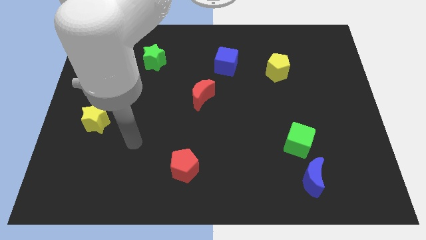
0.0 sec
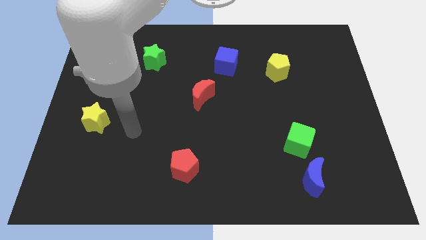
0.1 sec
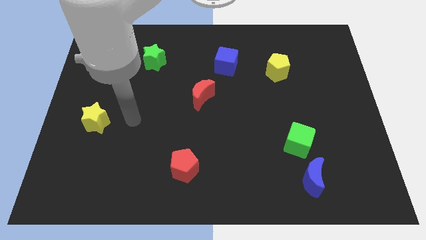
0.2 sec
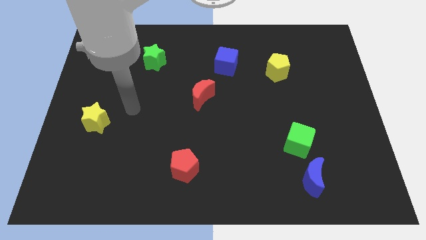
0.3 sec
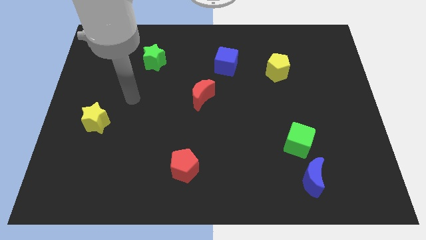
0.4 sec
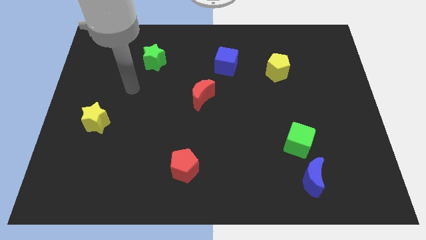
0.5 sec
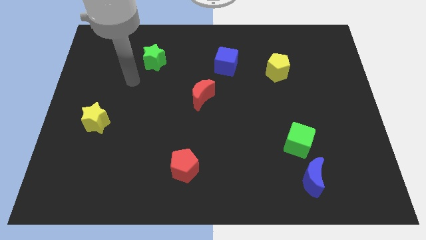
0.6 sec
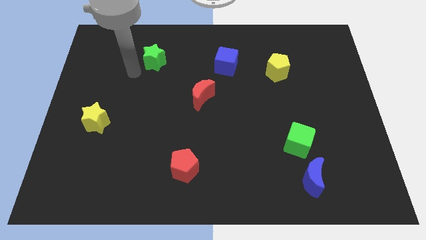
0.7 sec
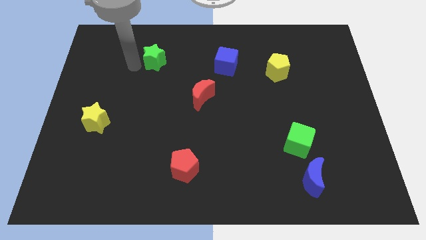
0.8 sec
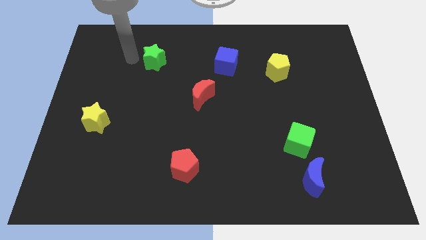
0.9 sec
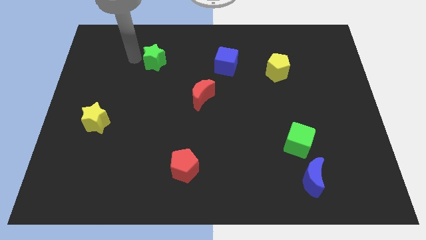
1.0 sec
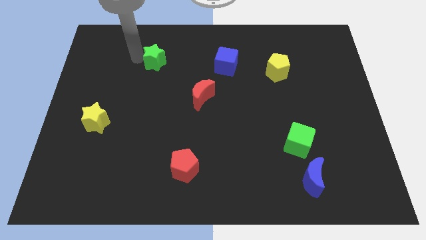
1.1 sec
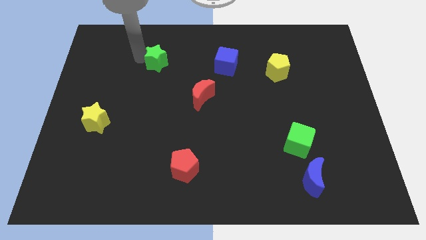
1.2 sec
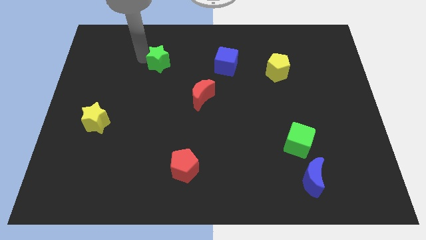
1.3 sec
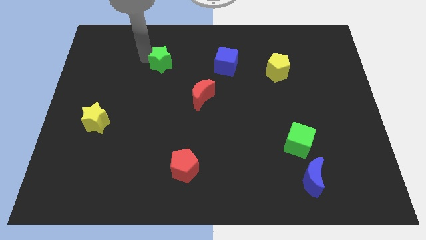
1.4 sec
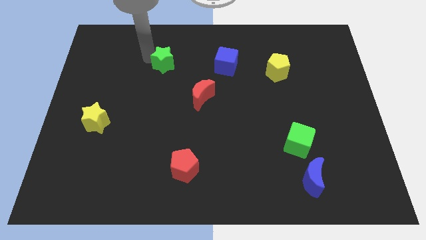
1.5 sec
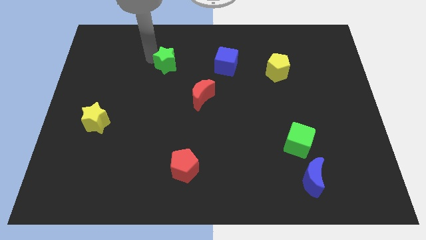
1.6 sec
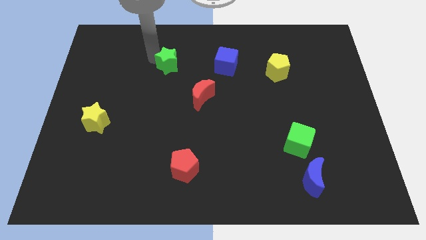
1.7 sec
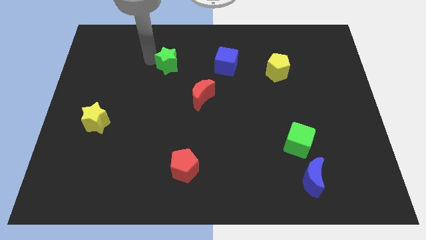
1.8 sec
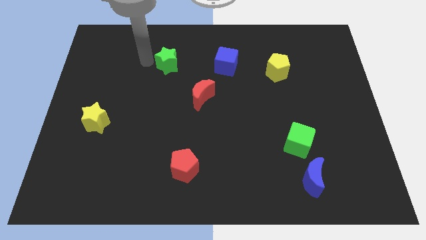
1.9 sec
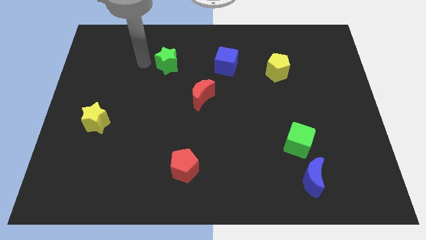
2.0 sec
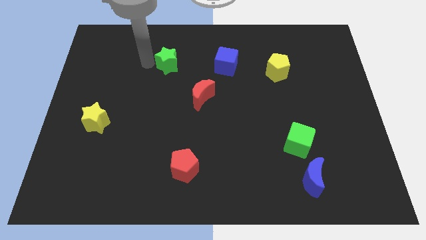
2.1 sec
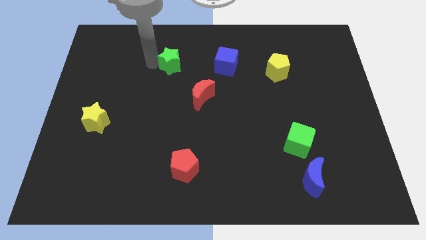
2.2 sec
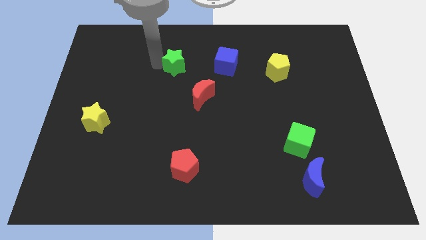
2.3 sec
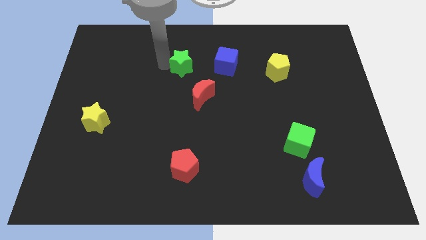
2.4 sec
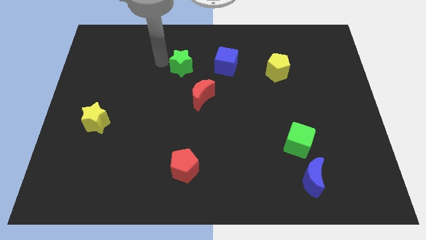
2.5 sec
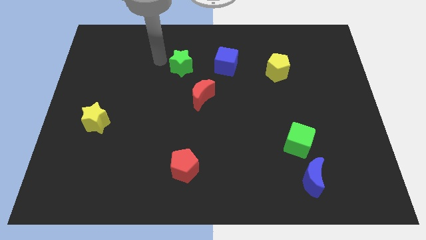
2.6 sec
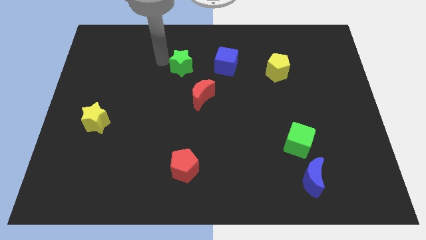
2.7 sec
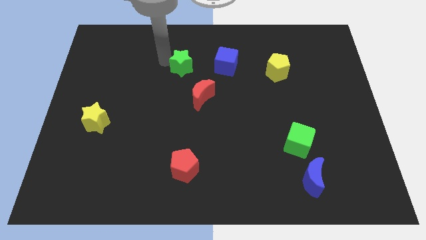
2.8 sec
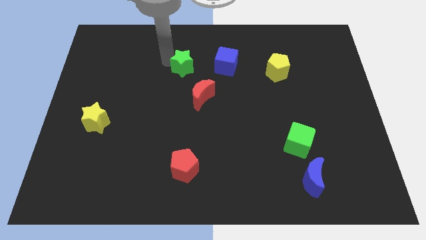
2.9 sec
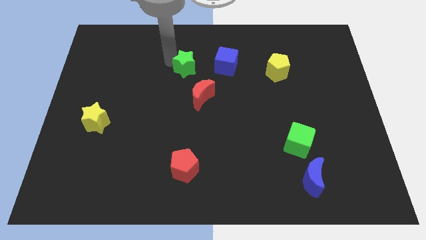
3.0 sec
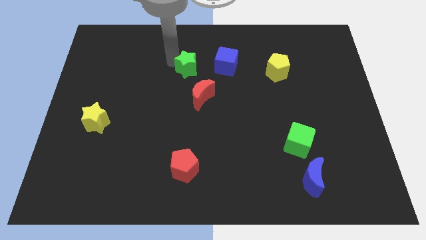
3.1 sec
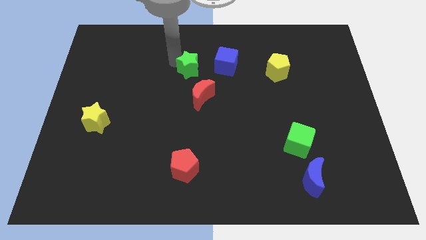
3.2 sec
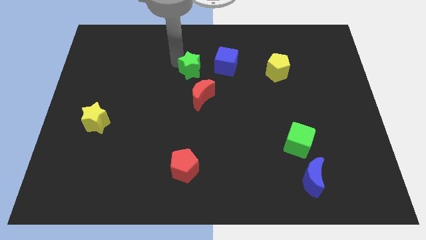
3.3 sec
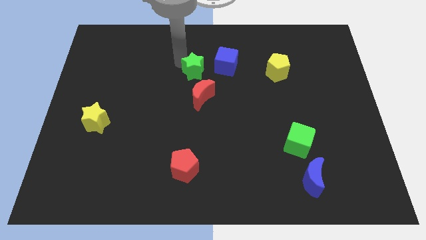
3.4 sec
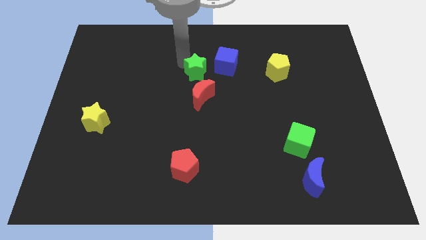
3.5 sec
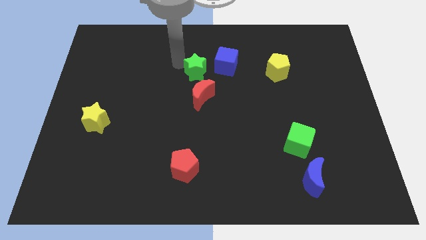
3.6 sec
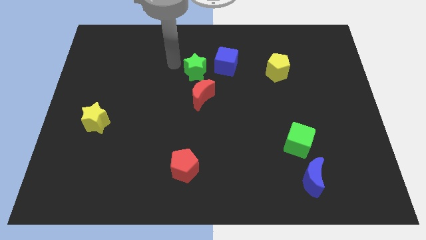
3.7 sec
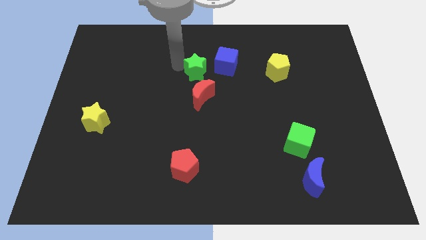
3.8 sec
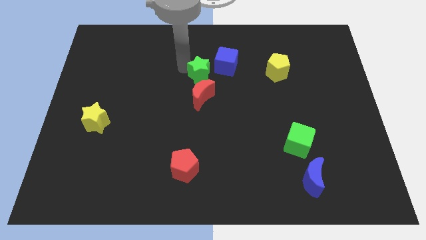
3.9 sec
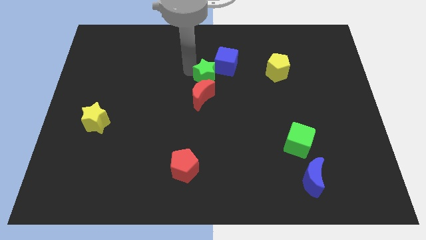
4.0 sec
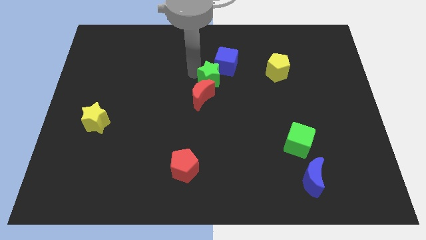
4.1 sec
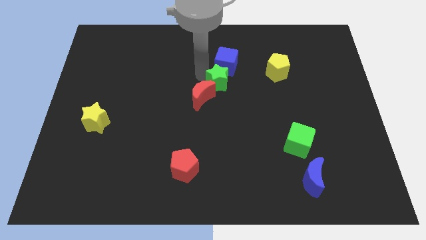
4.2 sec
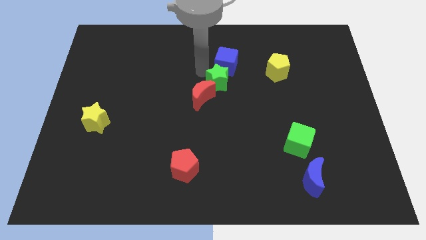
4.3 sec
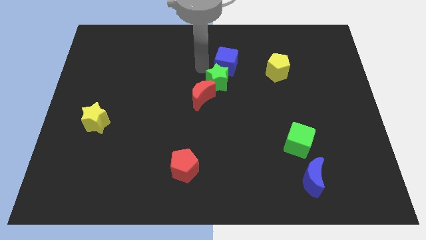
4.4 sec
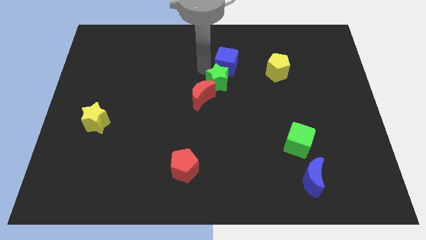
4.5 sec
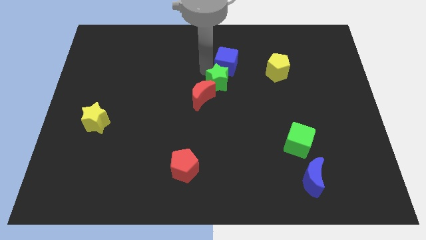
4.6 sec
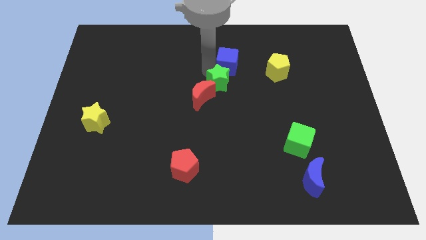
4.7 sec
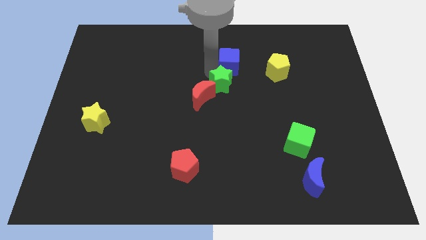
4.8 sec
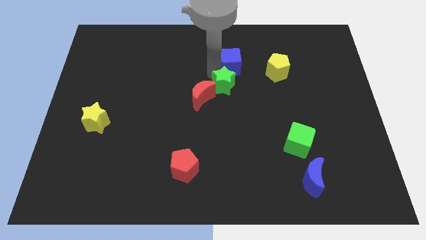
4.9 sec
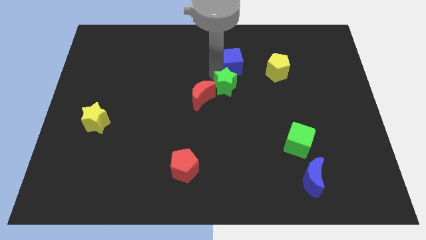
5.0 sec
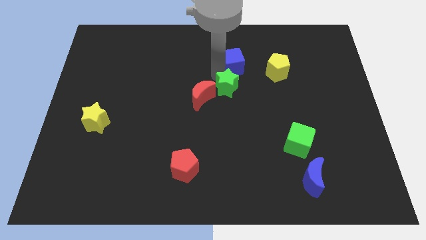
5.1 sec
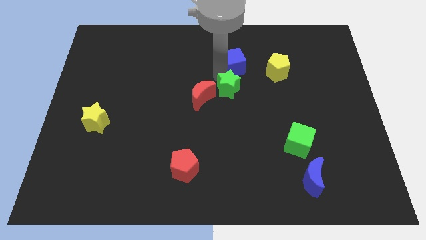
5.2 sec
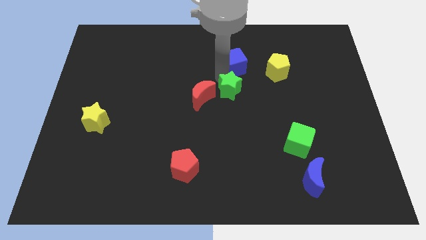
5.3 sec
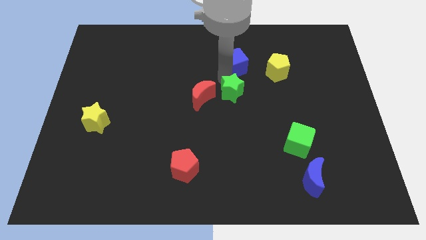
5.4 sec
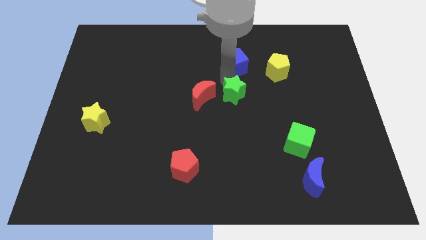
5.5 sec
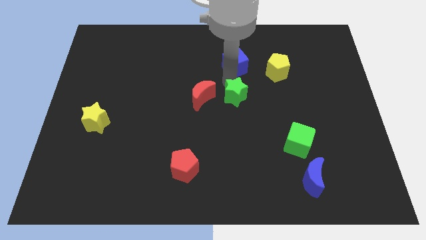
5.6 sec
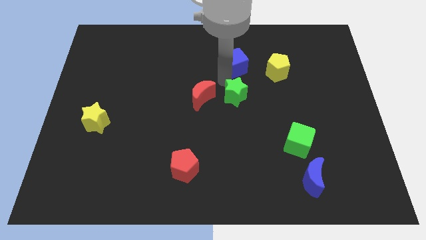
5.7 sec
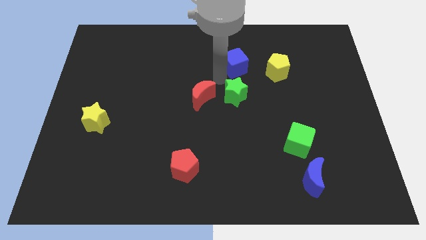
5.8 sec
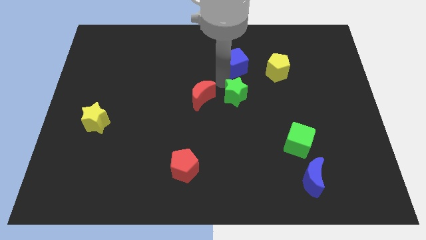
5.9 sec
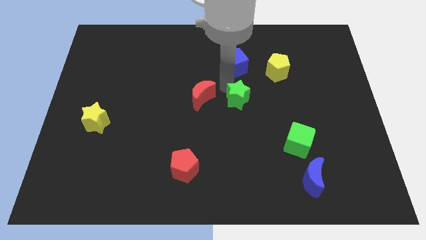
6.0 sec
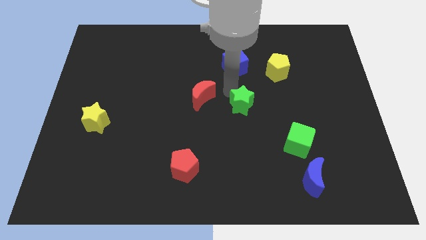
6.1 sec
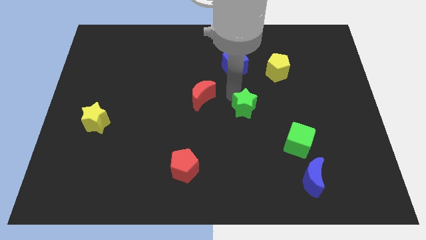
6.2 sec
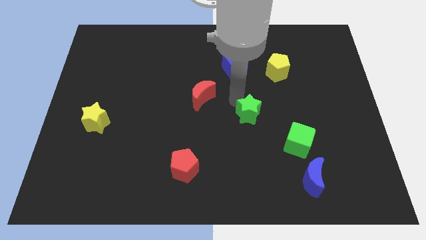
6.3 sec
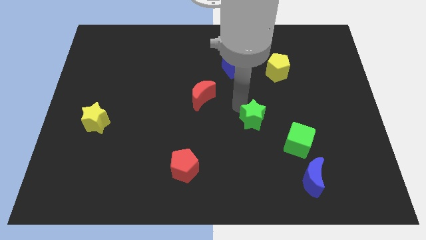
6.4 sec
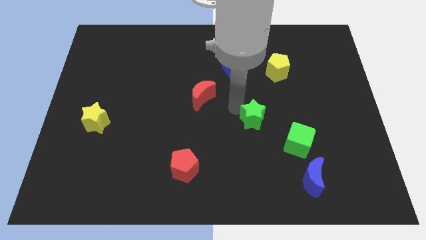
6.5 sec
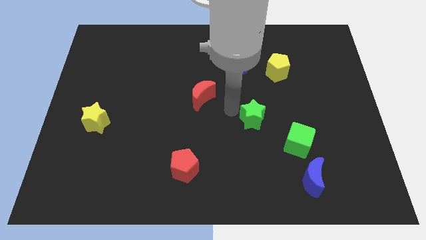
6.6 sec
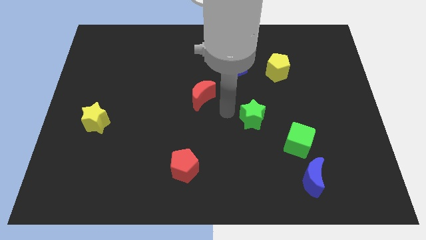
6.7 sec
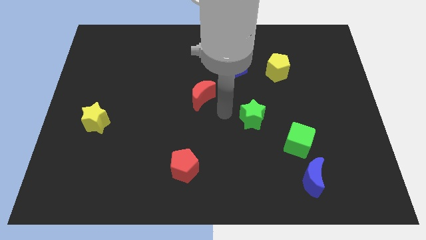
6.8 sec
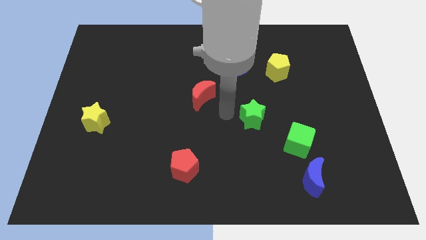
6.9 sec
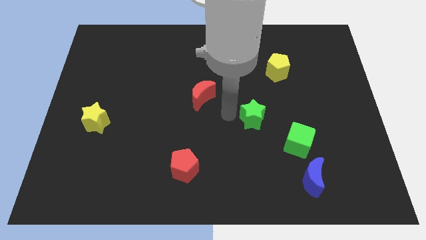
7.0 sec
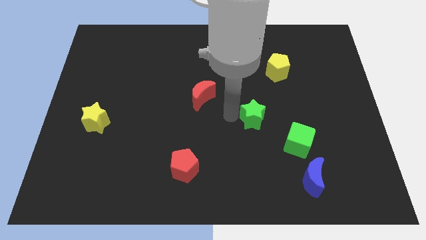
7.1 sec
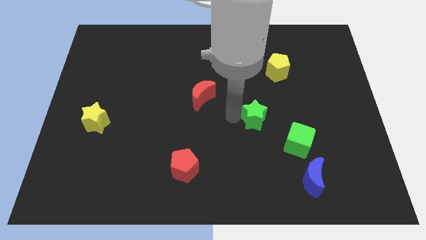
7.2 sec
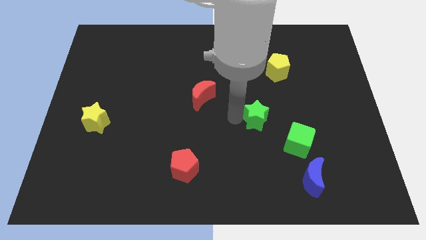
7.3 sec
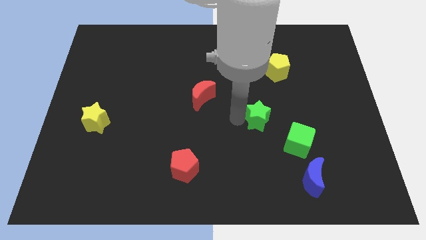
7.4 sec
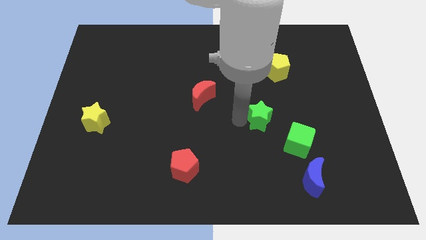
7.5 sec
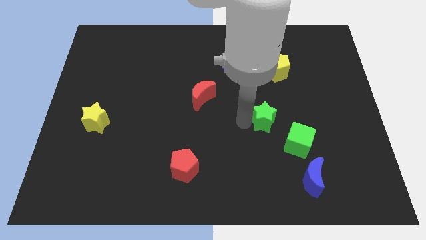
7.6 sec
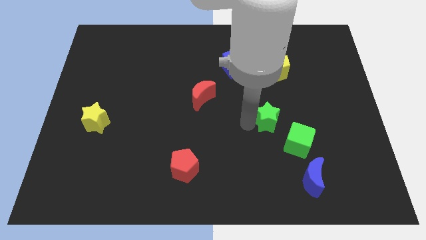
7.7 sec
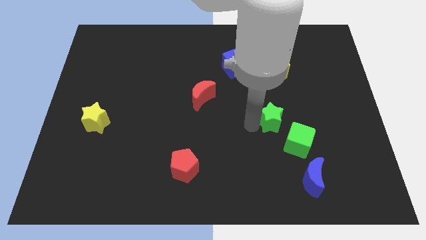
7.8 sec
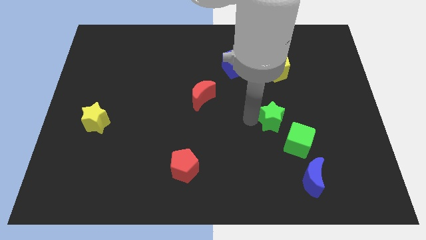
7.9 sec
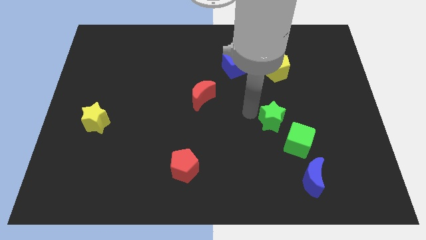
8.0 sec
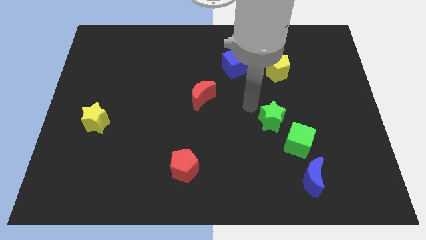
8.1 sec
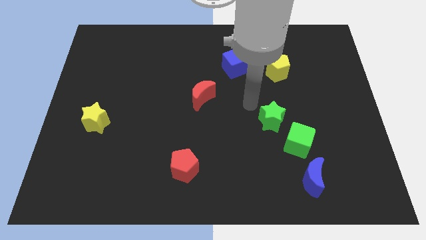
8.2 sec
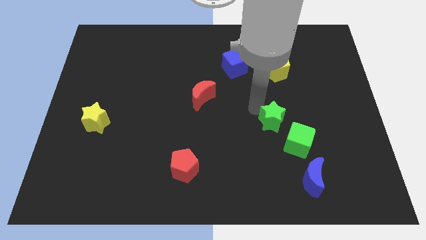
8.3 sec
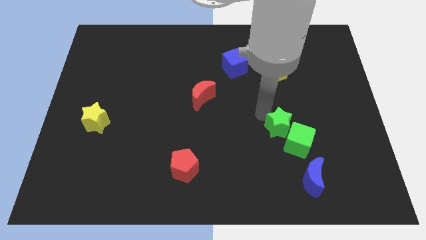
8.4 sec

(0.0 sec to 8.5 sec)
push the green star towards the green cube
